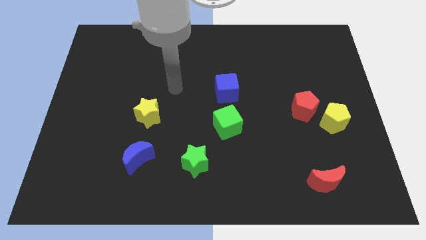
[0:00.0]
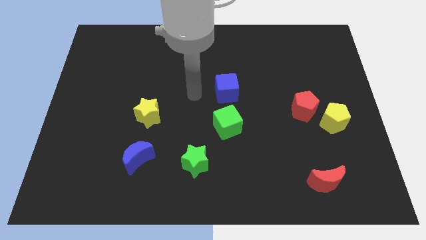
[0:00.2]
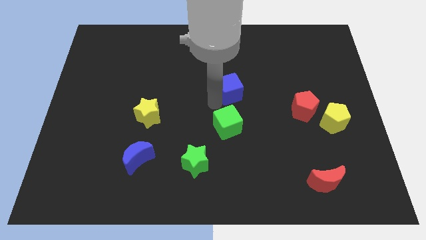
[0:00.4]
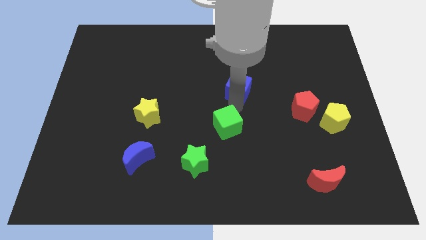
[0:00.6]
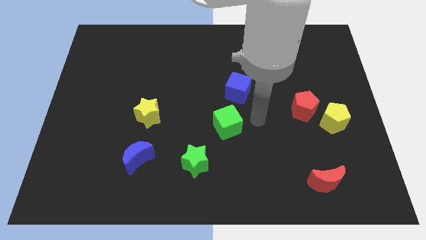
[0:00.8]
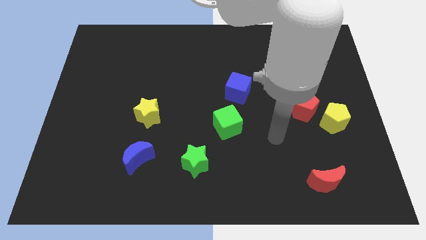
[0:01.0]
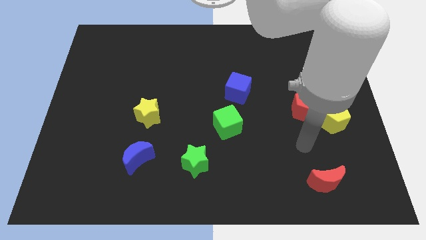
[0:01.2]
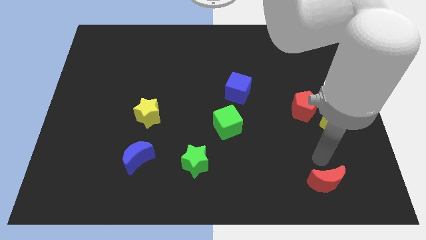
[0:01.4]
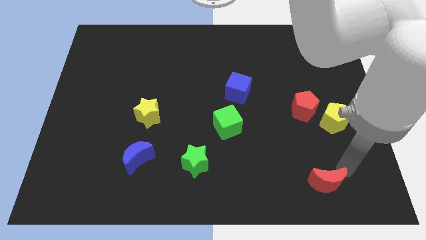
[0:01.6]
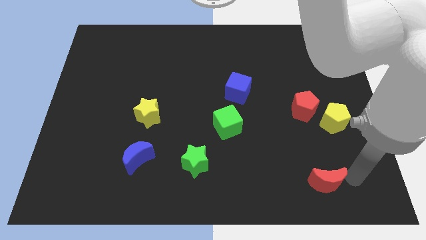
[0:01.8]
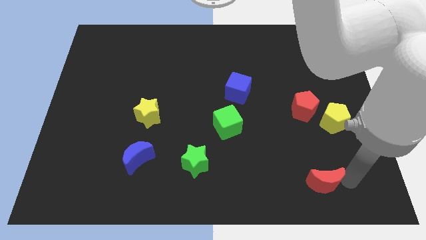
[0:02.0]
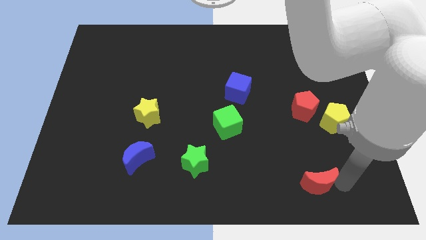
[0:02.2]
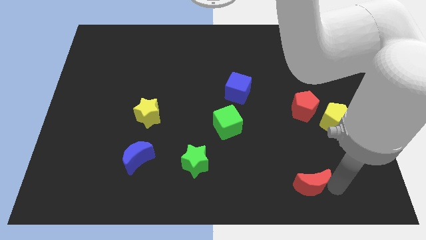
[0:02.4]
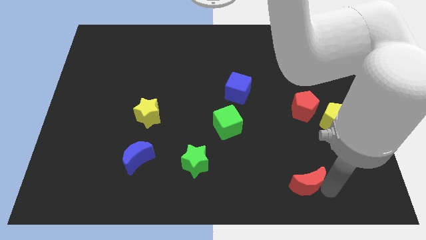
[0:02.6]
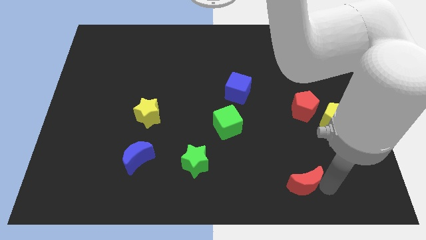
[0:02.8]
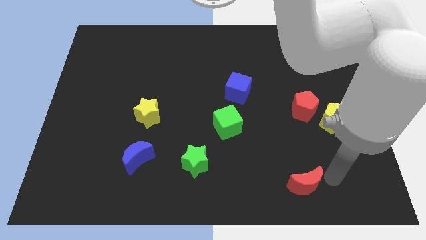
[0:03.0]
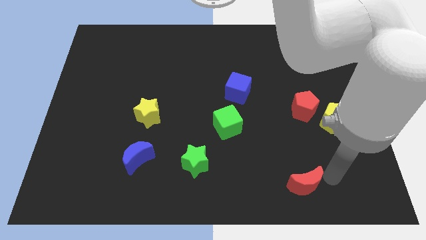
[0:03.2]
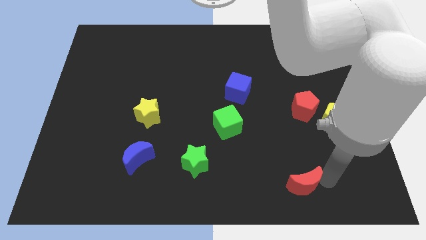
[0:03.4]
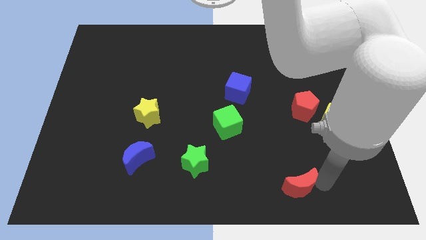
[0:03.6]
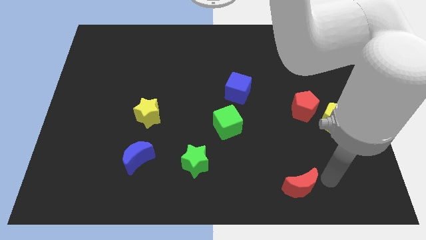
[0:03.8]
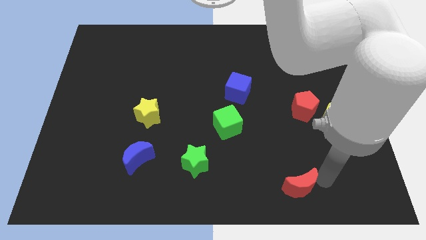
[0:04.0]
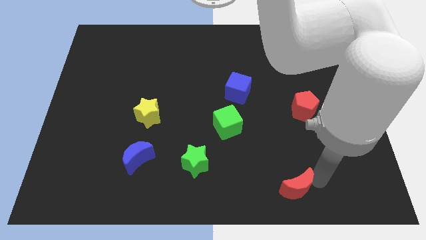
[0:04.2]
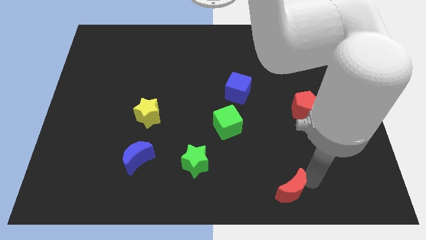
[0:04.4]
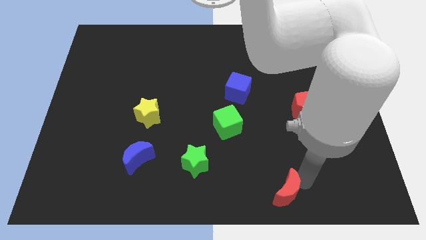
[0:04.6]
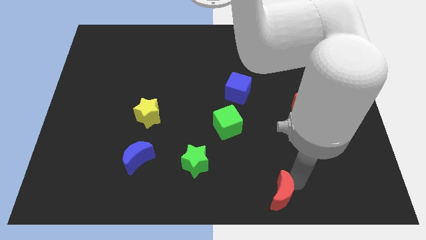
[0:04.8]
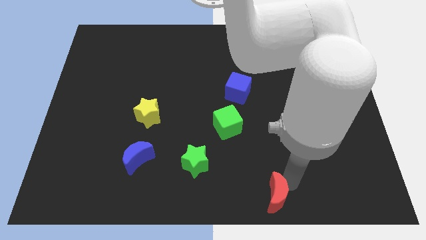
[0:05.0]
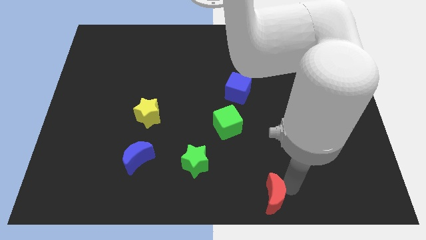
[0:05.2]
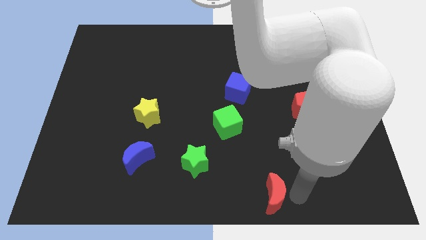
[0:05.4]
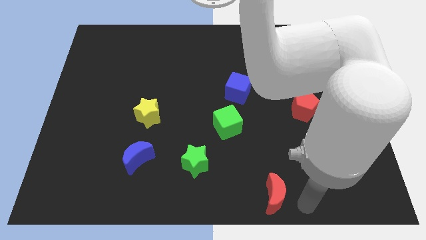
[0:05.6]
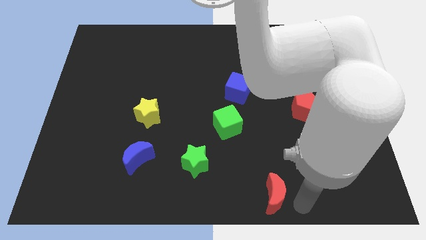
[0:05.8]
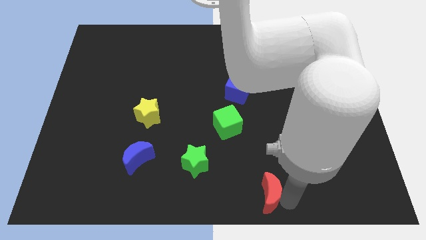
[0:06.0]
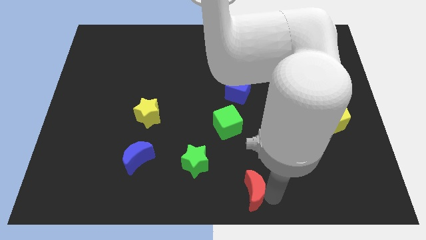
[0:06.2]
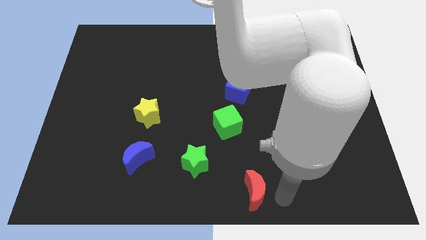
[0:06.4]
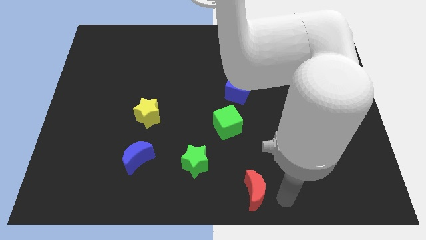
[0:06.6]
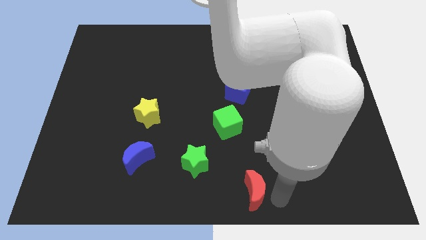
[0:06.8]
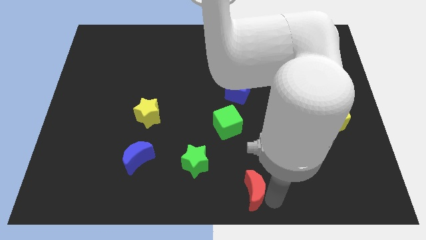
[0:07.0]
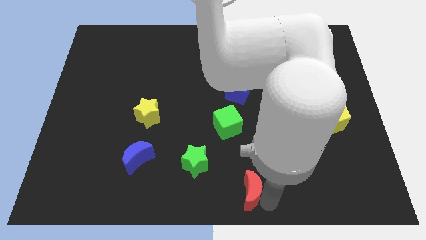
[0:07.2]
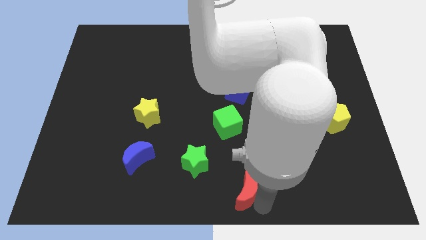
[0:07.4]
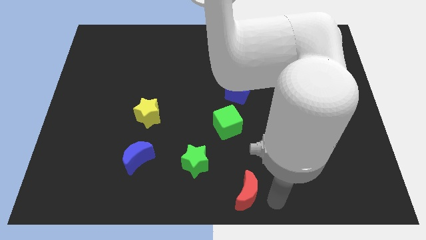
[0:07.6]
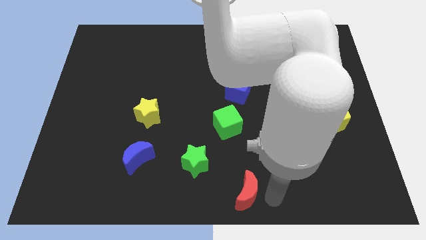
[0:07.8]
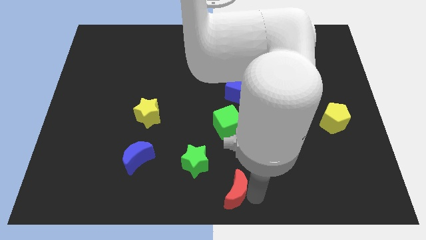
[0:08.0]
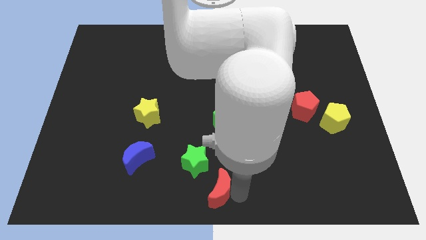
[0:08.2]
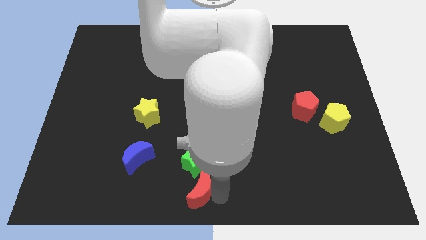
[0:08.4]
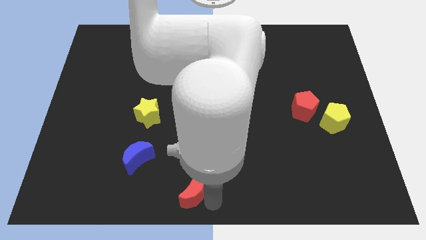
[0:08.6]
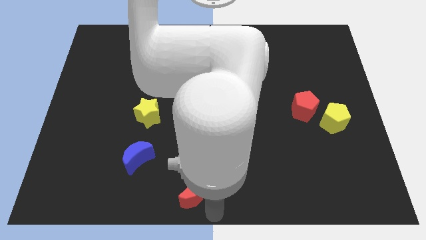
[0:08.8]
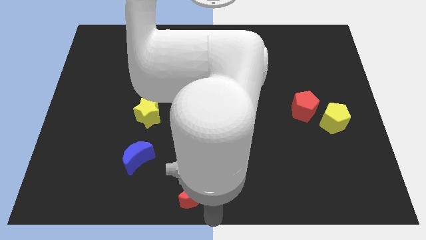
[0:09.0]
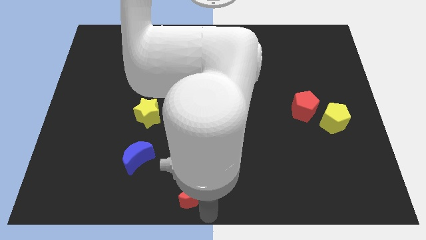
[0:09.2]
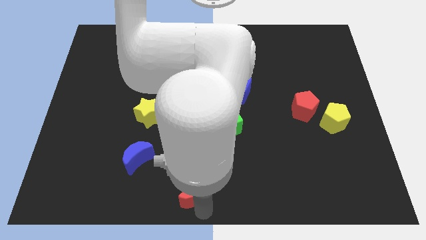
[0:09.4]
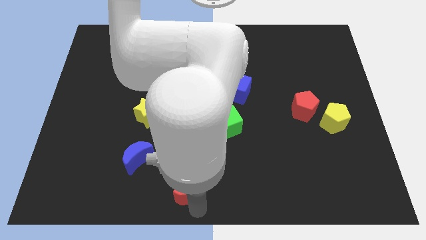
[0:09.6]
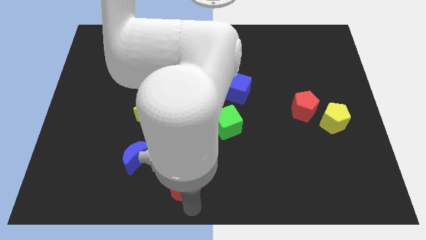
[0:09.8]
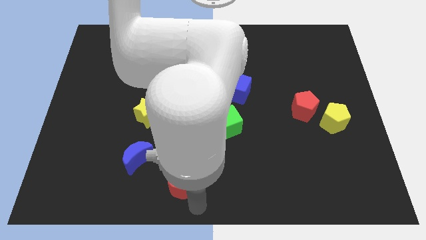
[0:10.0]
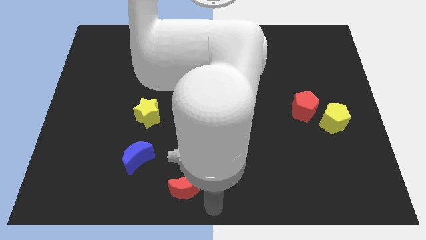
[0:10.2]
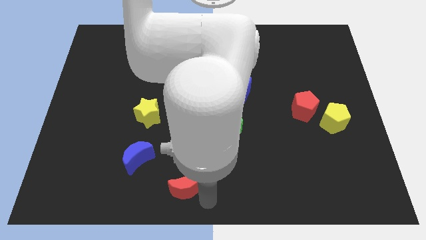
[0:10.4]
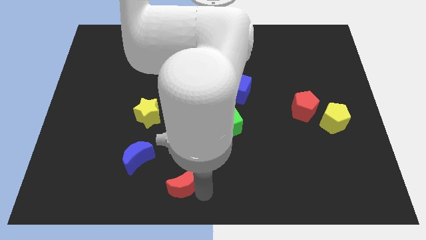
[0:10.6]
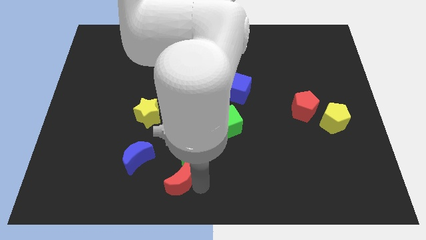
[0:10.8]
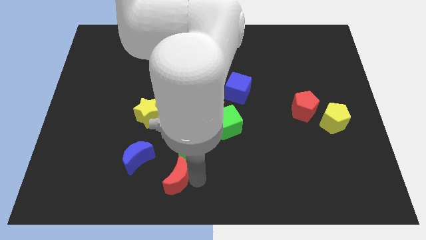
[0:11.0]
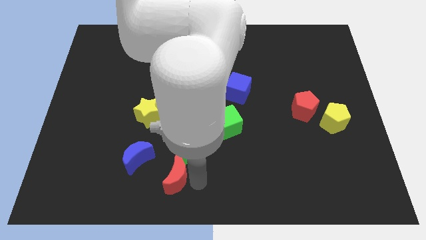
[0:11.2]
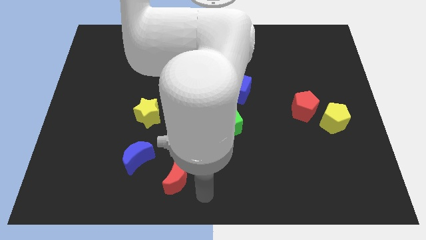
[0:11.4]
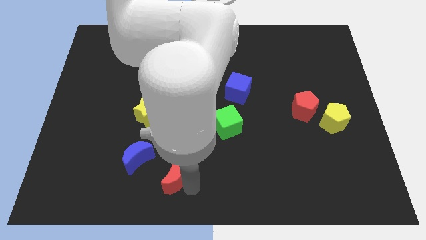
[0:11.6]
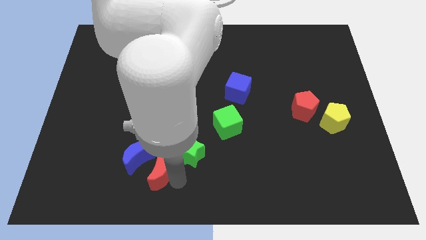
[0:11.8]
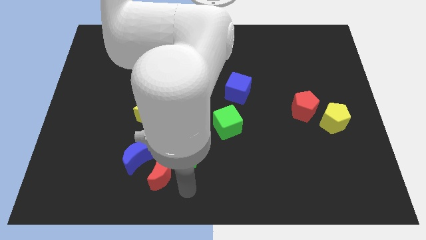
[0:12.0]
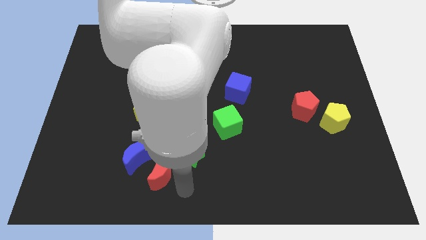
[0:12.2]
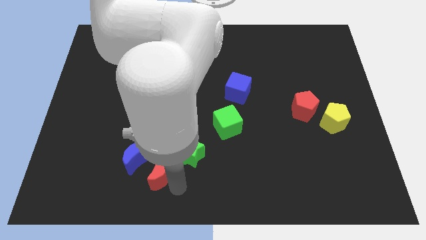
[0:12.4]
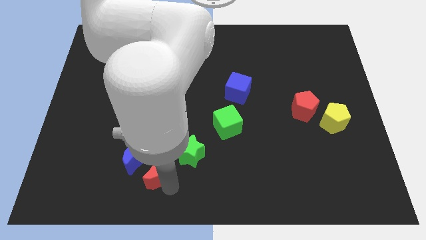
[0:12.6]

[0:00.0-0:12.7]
slide the red moon next to the blue moon

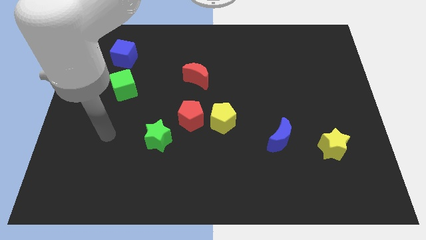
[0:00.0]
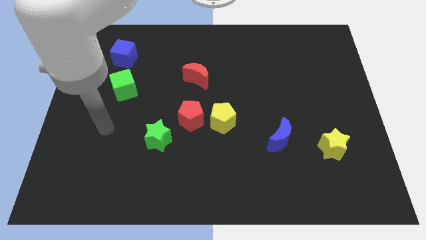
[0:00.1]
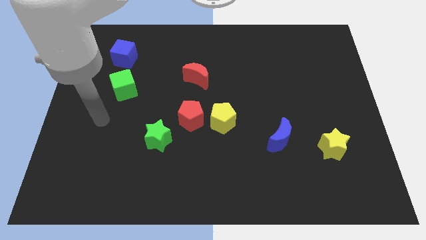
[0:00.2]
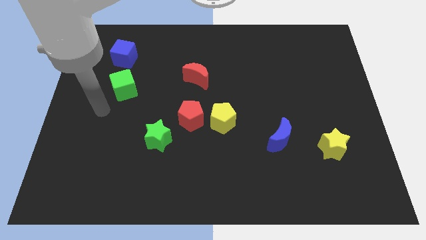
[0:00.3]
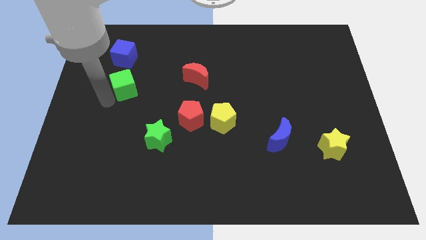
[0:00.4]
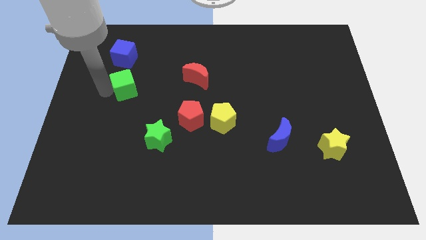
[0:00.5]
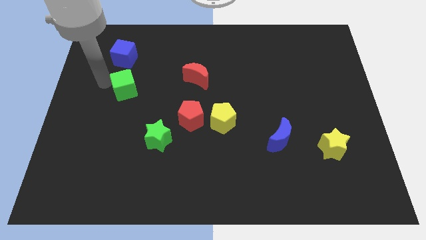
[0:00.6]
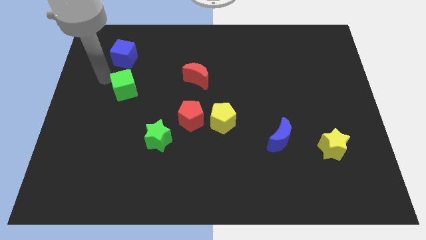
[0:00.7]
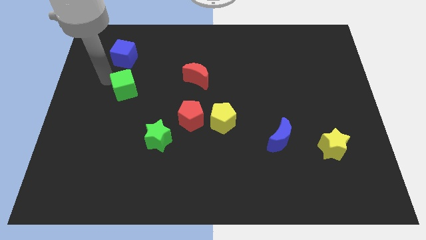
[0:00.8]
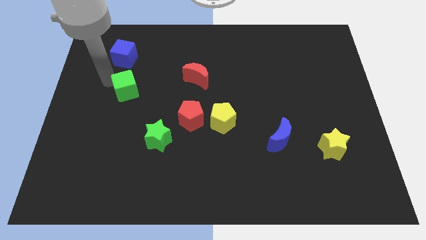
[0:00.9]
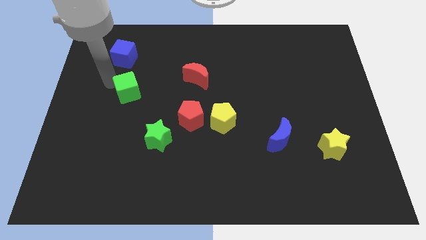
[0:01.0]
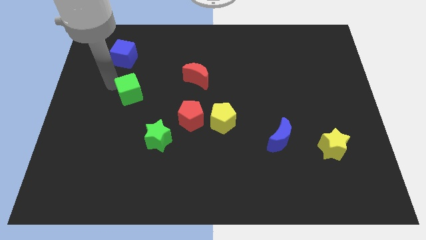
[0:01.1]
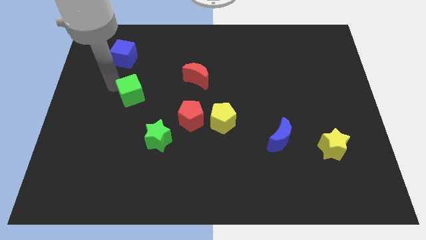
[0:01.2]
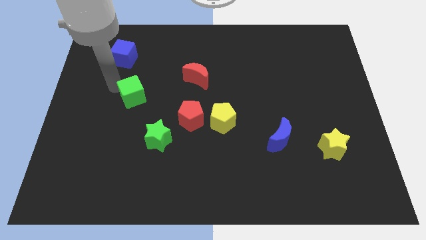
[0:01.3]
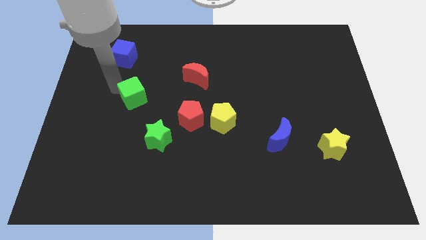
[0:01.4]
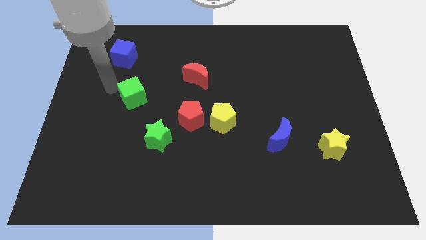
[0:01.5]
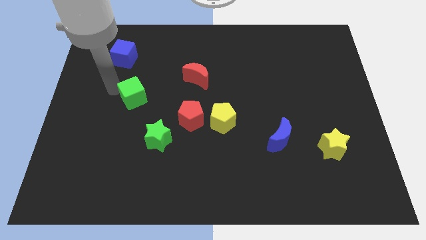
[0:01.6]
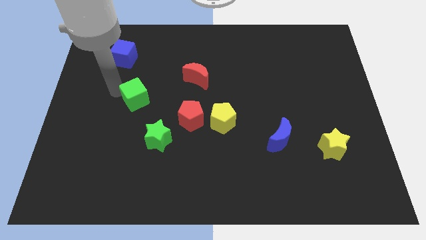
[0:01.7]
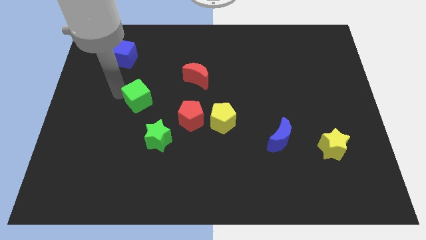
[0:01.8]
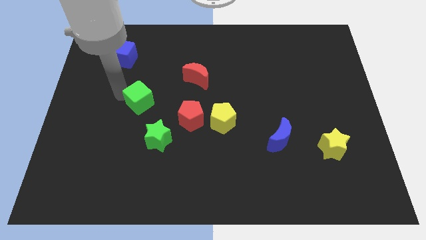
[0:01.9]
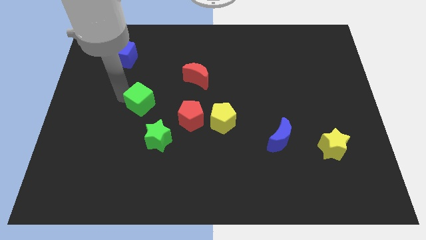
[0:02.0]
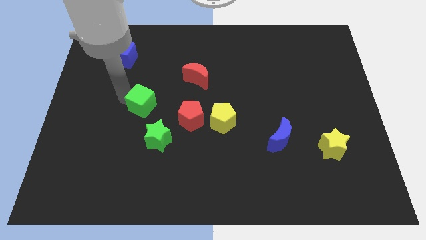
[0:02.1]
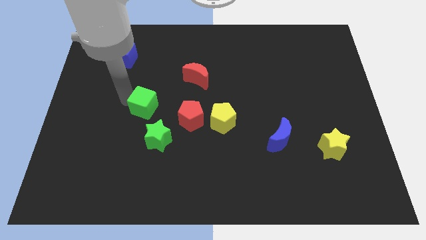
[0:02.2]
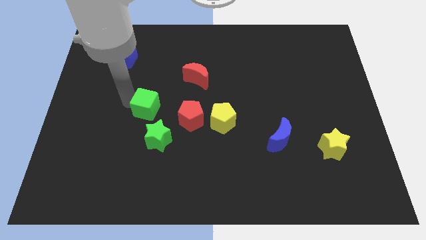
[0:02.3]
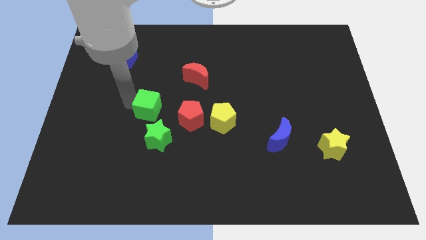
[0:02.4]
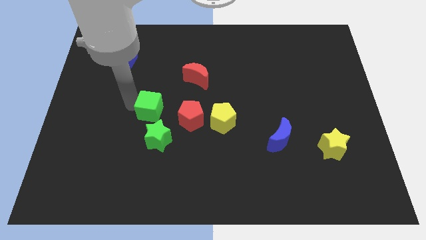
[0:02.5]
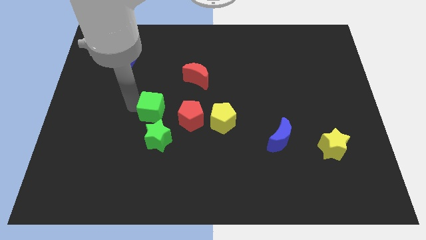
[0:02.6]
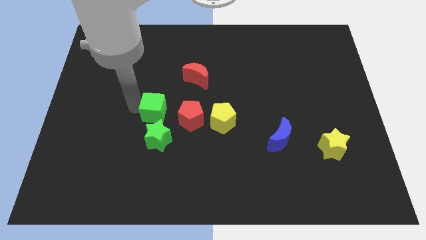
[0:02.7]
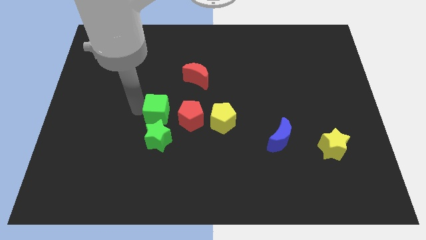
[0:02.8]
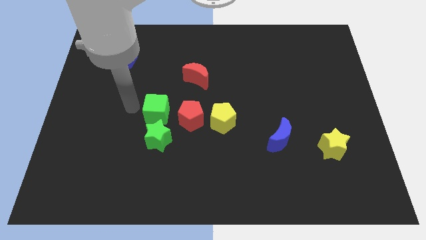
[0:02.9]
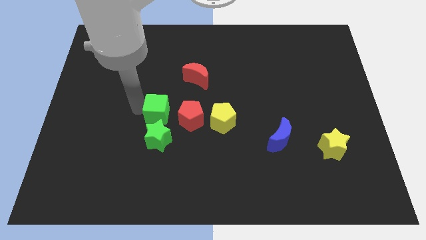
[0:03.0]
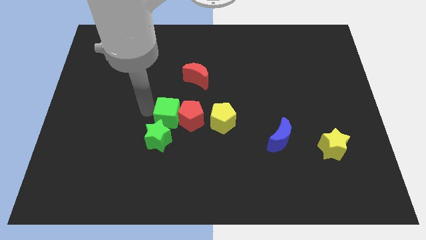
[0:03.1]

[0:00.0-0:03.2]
put the green cube close to the red pentagon
